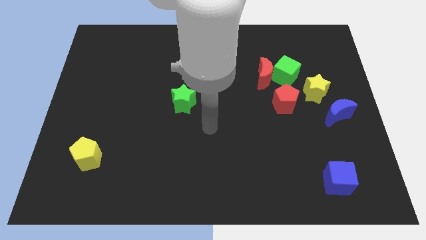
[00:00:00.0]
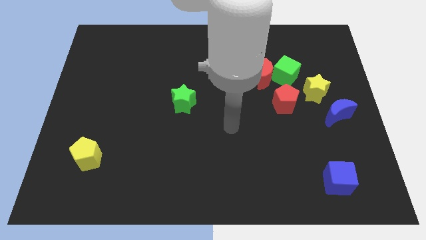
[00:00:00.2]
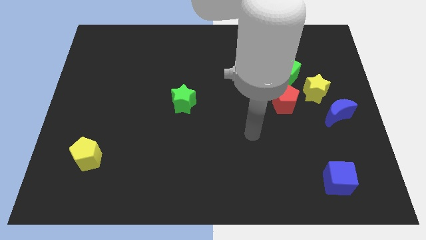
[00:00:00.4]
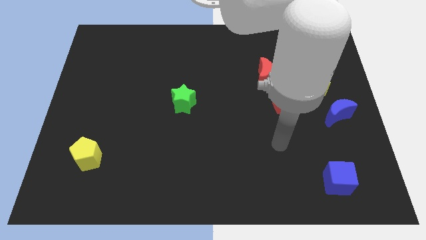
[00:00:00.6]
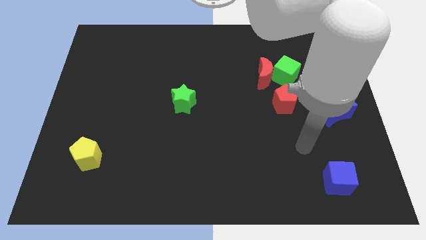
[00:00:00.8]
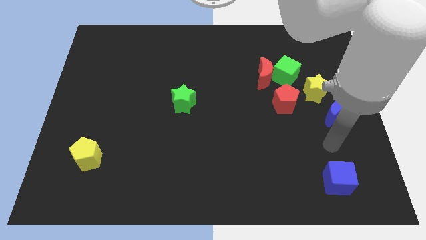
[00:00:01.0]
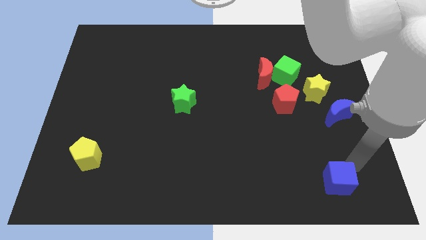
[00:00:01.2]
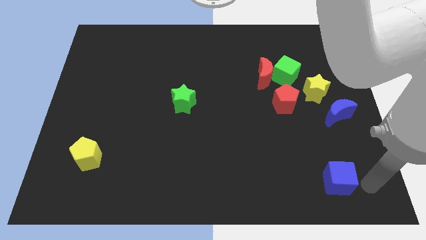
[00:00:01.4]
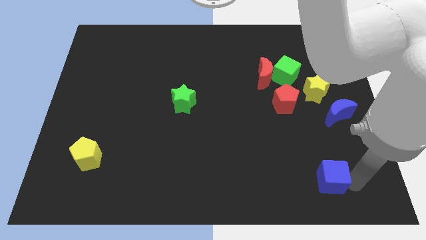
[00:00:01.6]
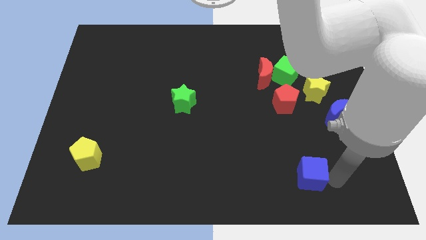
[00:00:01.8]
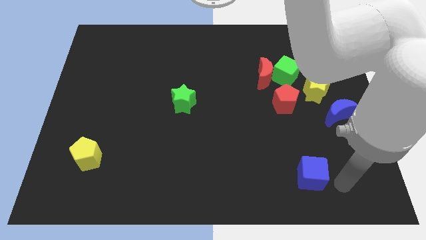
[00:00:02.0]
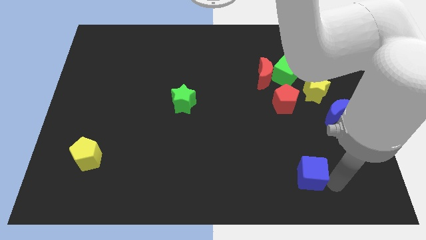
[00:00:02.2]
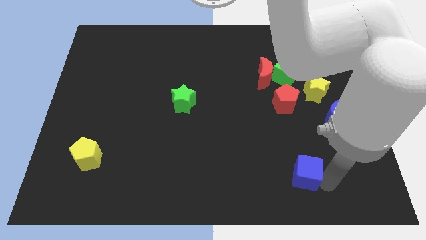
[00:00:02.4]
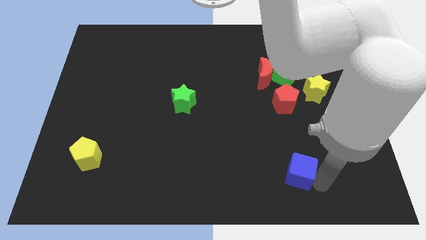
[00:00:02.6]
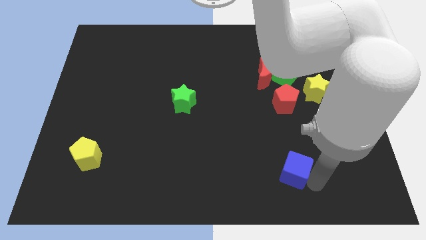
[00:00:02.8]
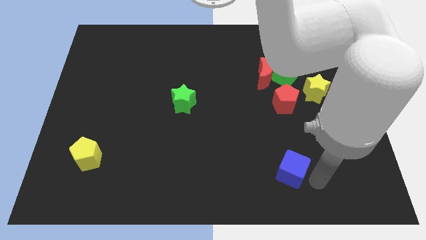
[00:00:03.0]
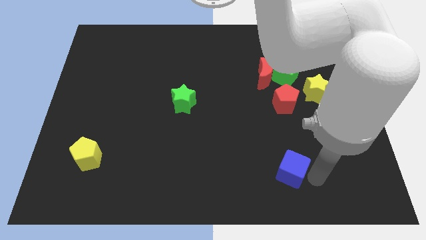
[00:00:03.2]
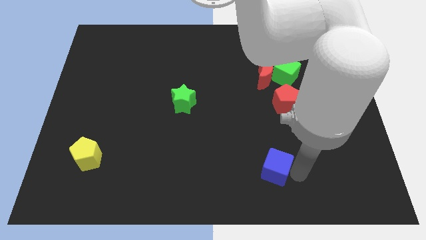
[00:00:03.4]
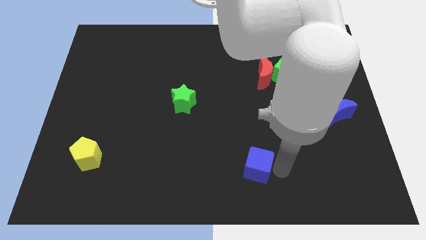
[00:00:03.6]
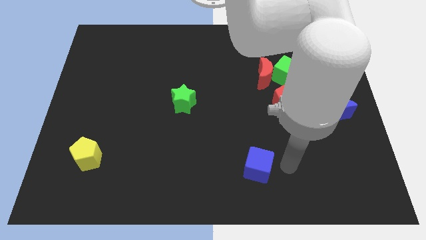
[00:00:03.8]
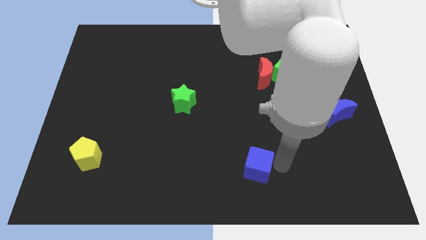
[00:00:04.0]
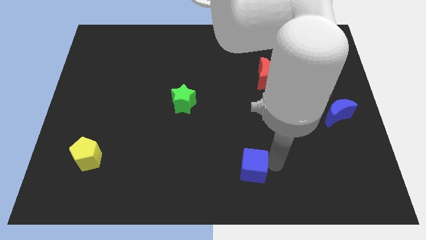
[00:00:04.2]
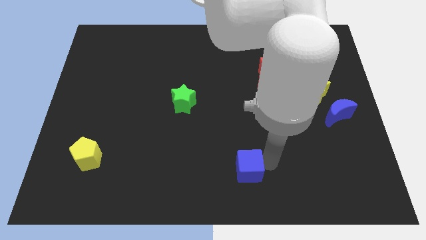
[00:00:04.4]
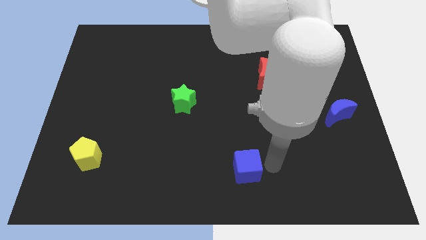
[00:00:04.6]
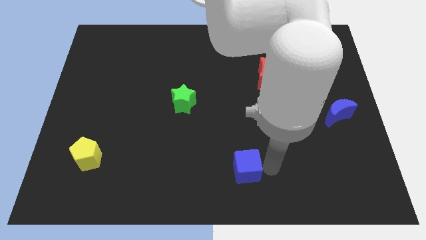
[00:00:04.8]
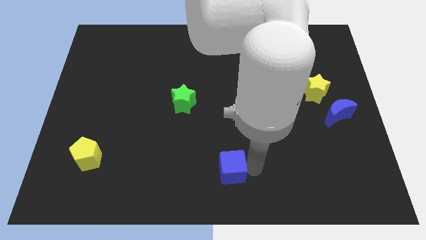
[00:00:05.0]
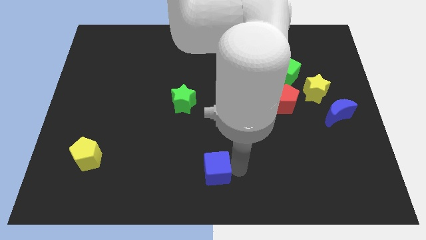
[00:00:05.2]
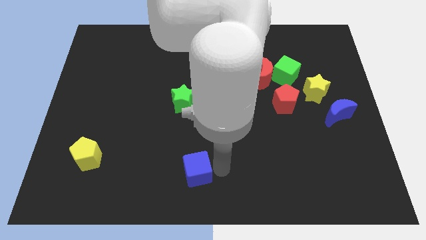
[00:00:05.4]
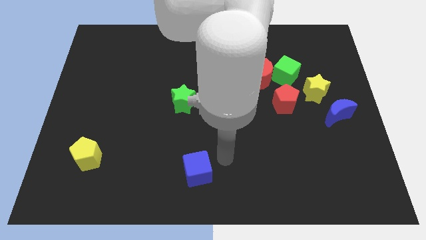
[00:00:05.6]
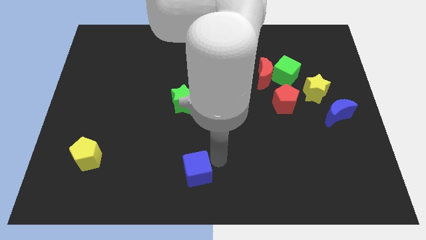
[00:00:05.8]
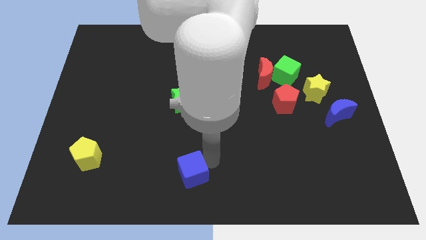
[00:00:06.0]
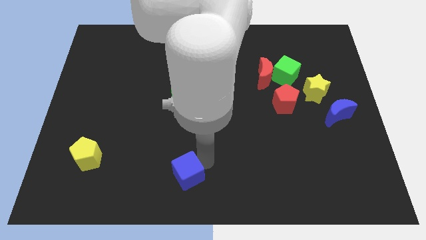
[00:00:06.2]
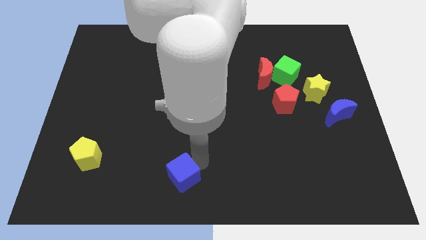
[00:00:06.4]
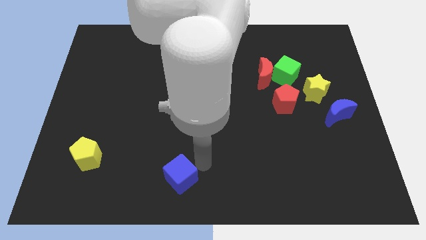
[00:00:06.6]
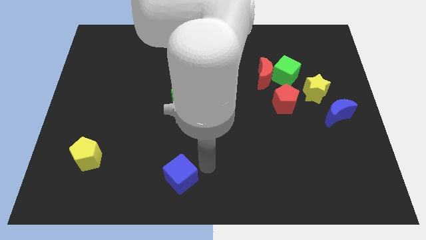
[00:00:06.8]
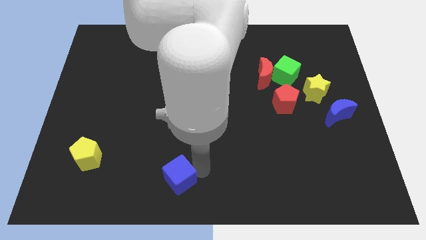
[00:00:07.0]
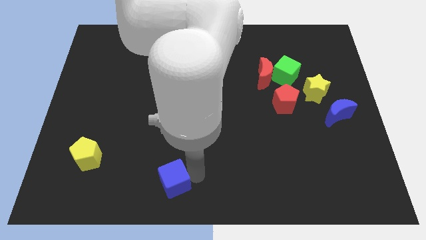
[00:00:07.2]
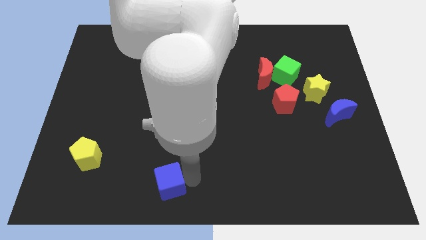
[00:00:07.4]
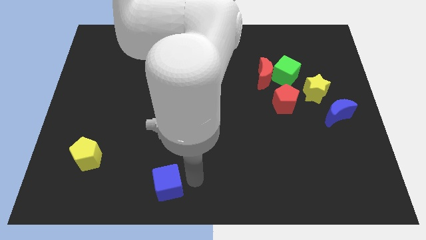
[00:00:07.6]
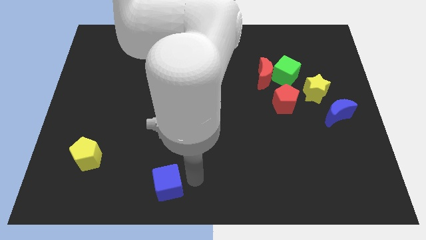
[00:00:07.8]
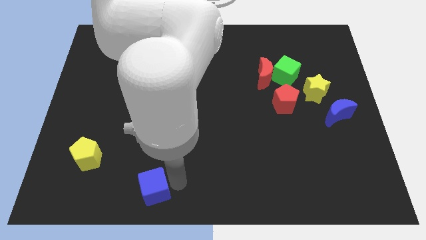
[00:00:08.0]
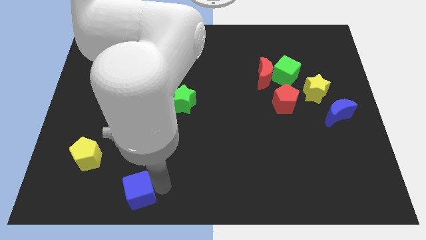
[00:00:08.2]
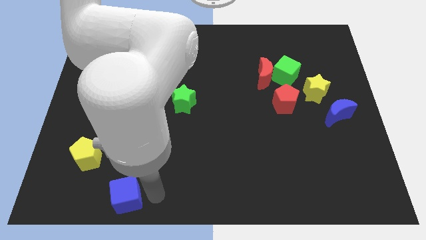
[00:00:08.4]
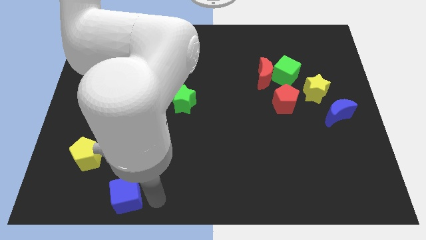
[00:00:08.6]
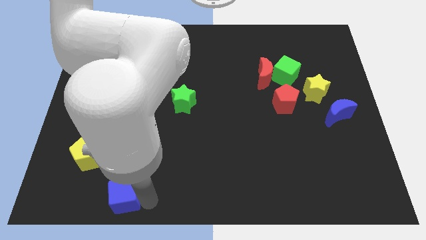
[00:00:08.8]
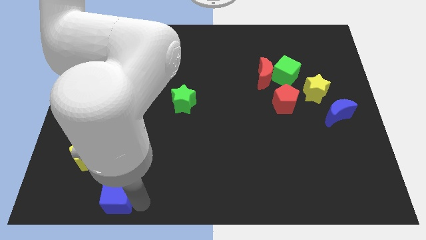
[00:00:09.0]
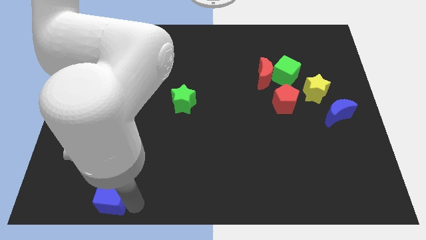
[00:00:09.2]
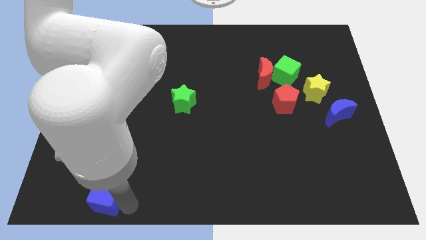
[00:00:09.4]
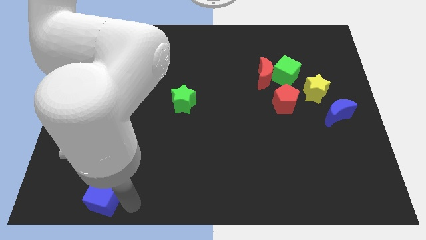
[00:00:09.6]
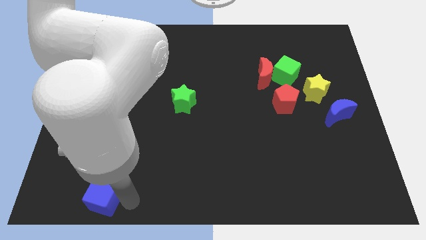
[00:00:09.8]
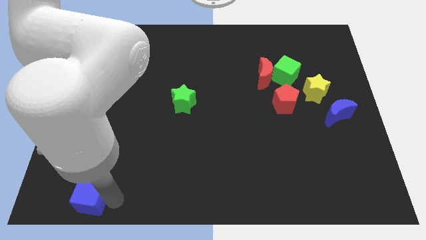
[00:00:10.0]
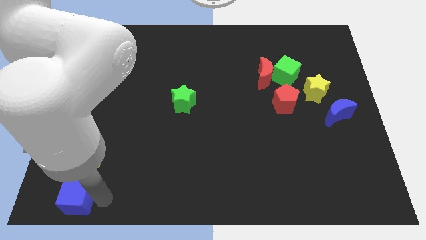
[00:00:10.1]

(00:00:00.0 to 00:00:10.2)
put the blue cube to the bottom left

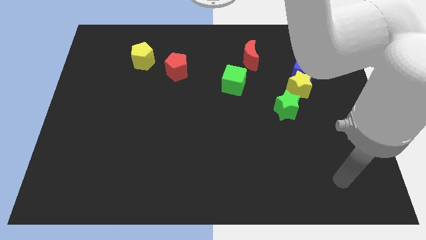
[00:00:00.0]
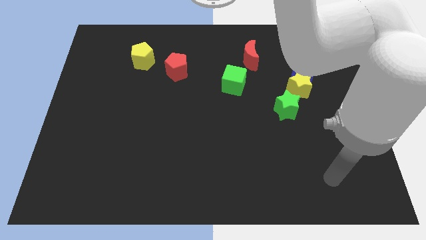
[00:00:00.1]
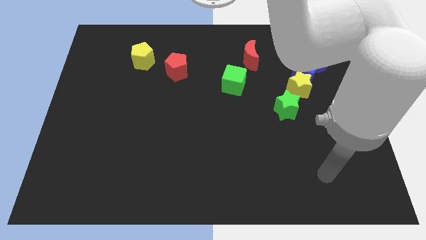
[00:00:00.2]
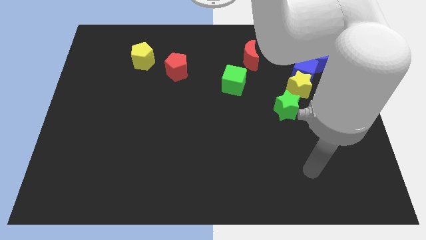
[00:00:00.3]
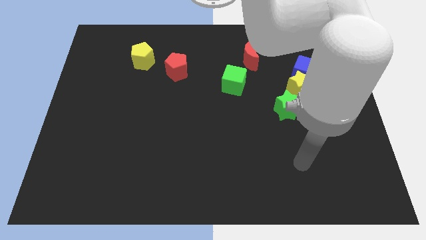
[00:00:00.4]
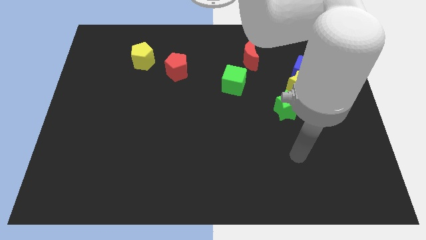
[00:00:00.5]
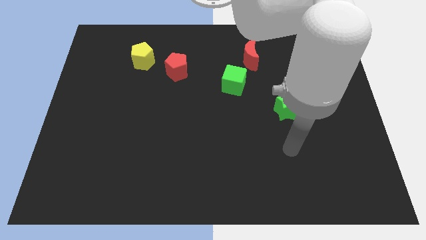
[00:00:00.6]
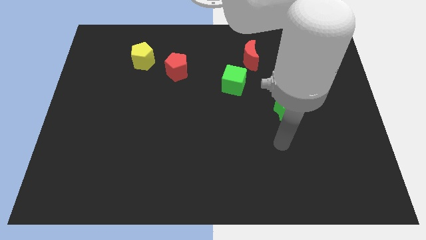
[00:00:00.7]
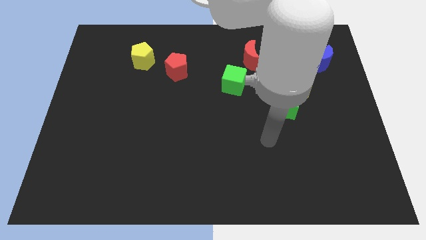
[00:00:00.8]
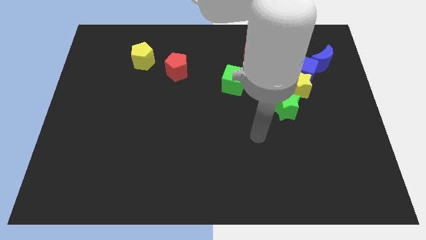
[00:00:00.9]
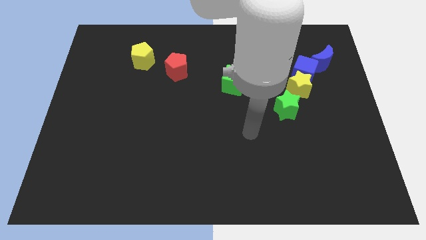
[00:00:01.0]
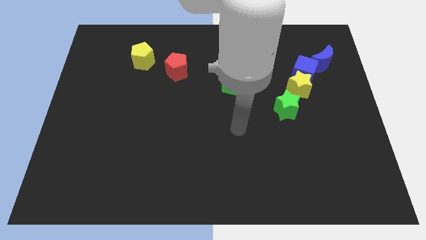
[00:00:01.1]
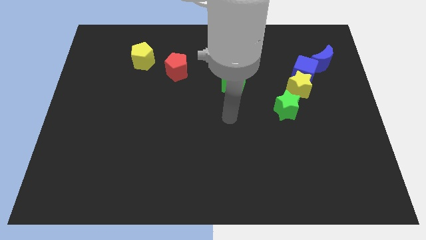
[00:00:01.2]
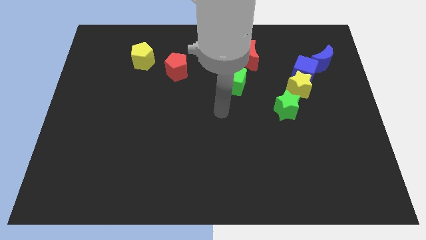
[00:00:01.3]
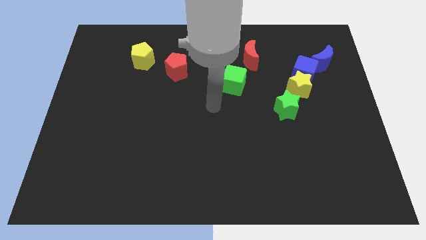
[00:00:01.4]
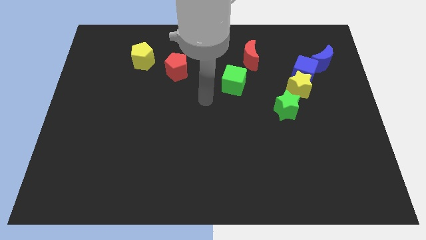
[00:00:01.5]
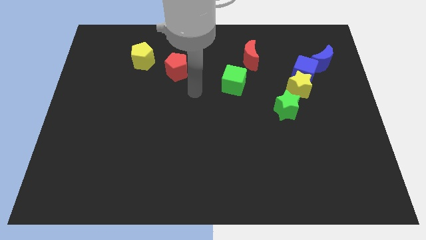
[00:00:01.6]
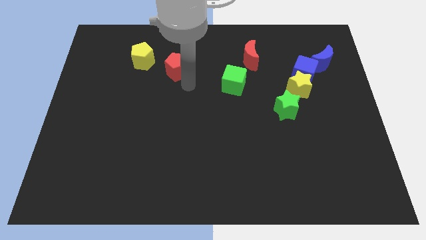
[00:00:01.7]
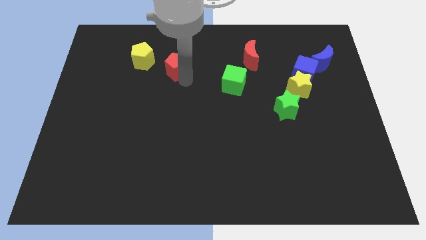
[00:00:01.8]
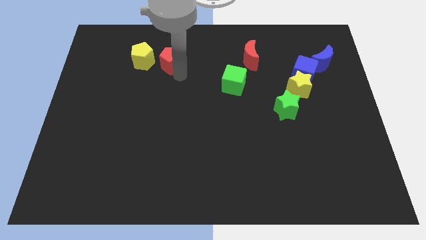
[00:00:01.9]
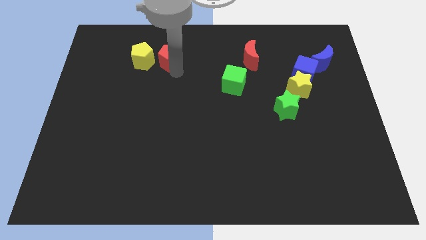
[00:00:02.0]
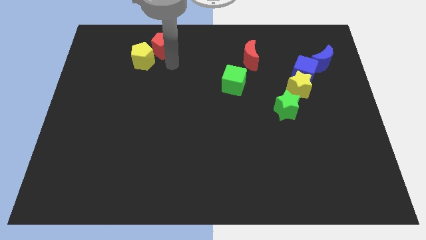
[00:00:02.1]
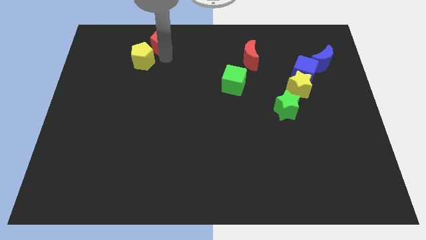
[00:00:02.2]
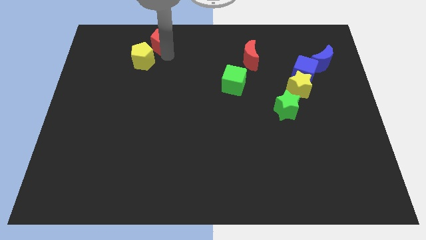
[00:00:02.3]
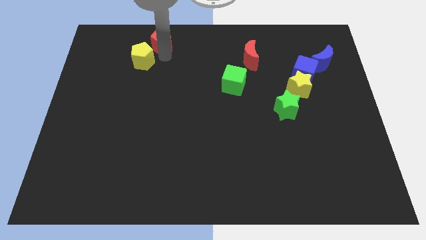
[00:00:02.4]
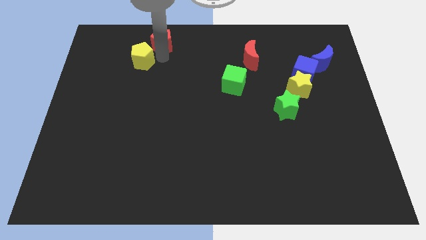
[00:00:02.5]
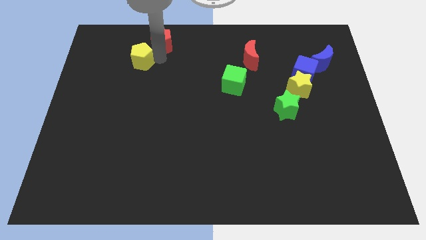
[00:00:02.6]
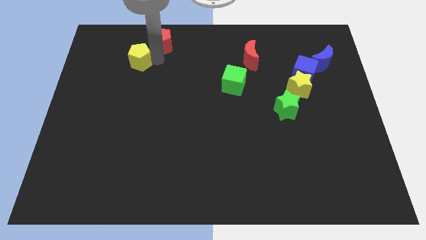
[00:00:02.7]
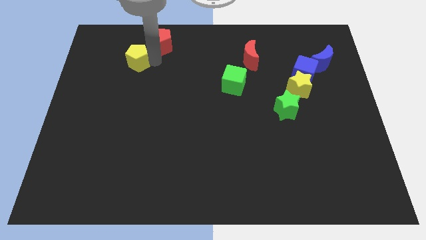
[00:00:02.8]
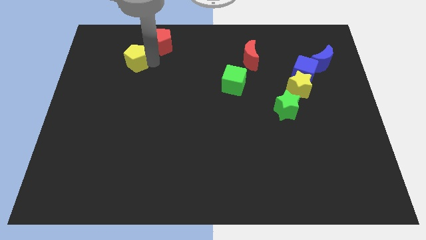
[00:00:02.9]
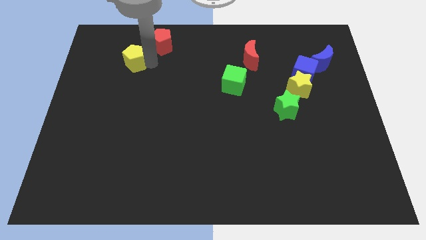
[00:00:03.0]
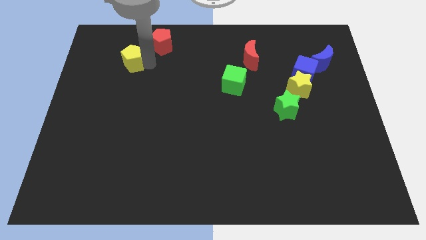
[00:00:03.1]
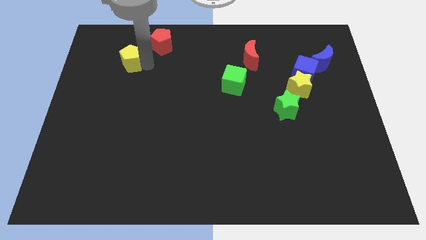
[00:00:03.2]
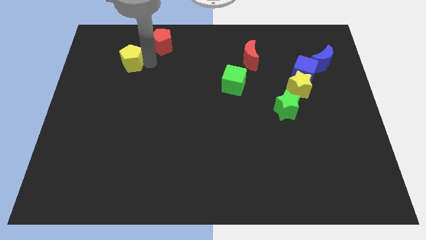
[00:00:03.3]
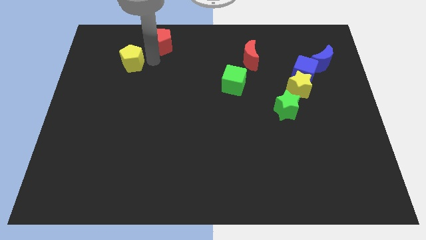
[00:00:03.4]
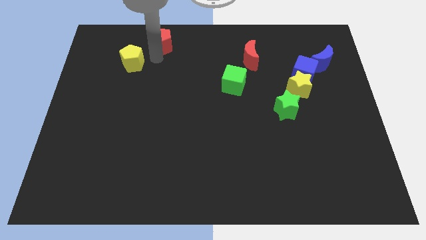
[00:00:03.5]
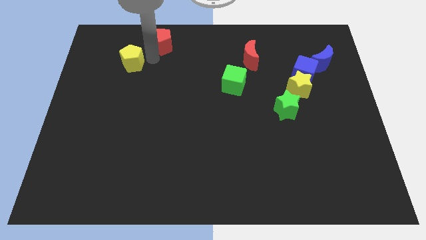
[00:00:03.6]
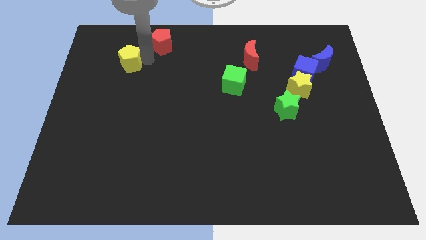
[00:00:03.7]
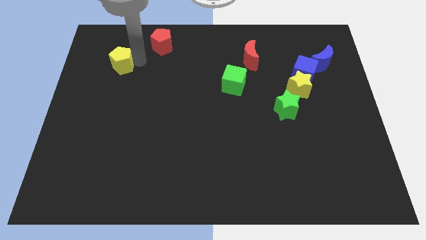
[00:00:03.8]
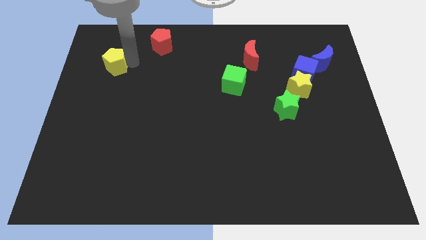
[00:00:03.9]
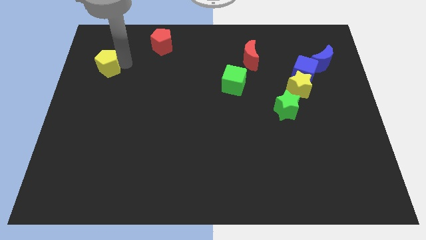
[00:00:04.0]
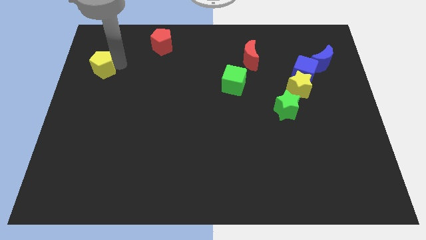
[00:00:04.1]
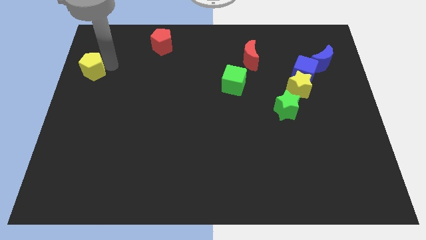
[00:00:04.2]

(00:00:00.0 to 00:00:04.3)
slide the yellow pentagon to the center left
